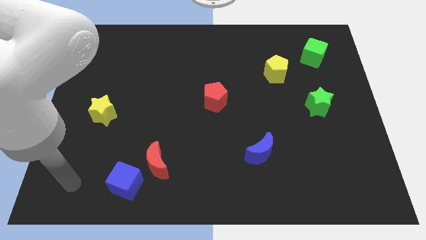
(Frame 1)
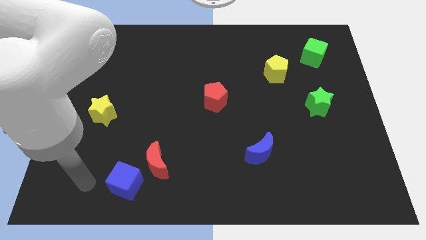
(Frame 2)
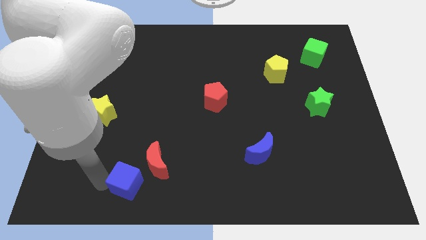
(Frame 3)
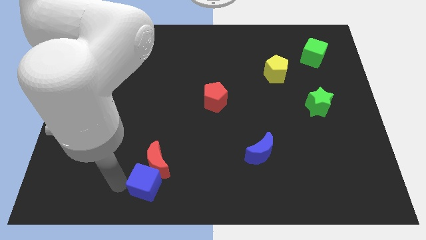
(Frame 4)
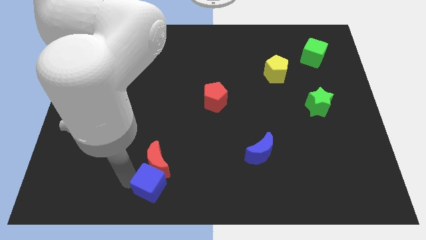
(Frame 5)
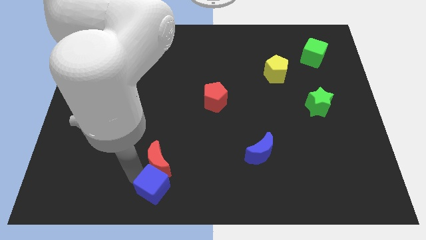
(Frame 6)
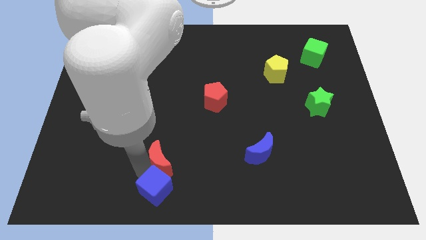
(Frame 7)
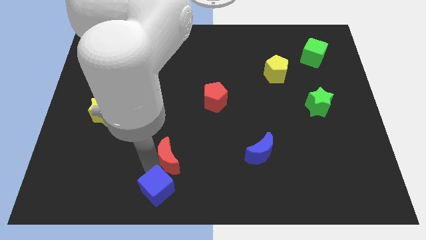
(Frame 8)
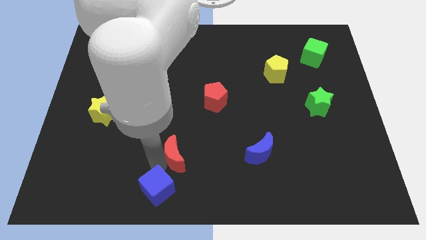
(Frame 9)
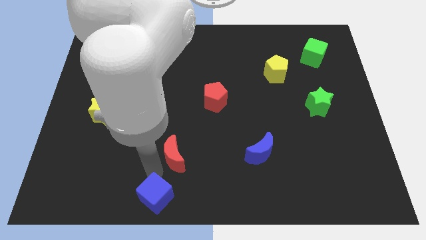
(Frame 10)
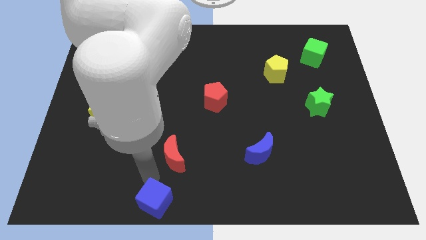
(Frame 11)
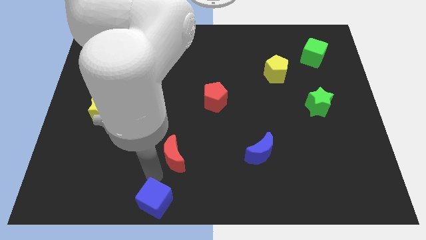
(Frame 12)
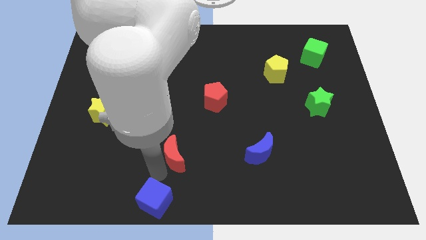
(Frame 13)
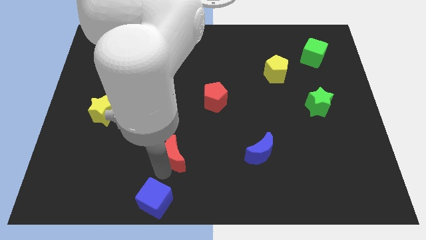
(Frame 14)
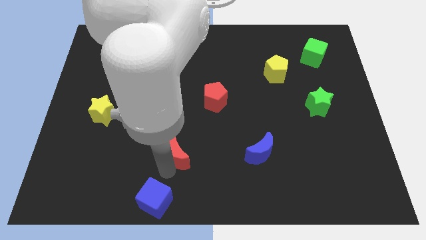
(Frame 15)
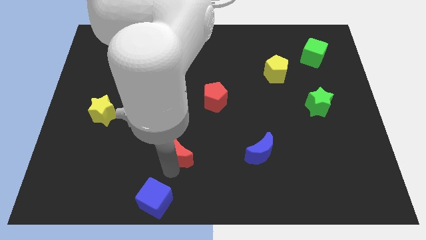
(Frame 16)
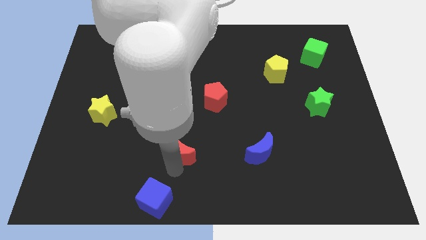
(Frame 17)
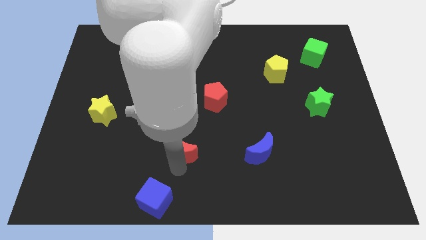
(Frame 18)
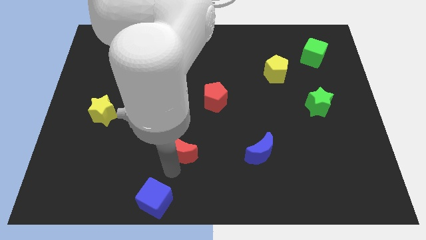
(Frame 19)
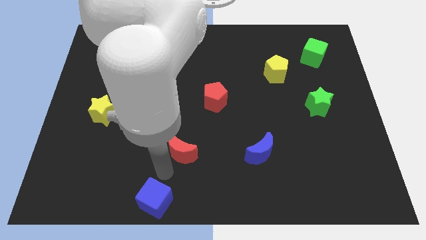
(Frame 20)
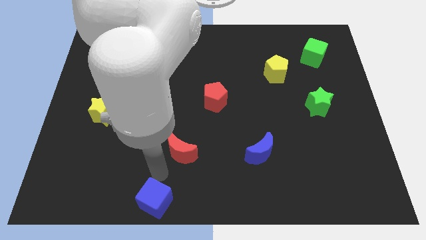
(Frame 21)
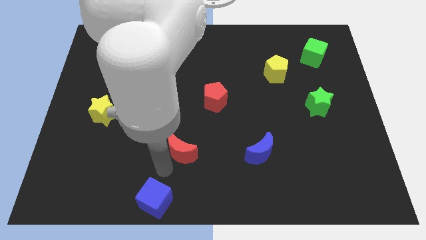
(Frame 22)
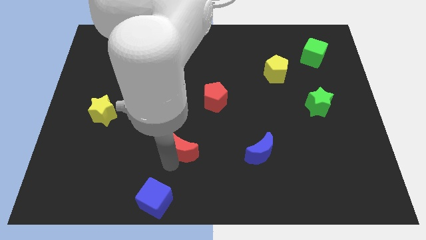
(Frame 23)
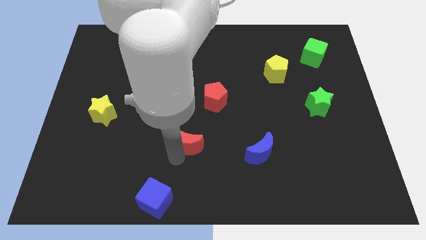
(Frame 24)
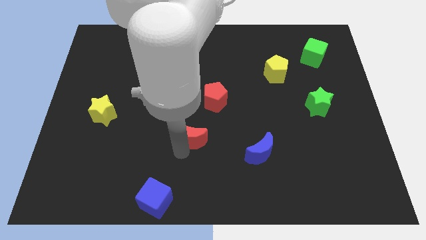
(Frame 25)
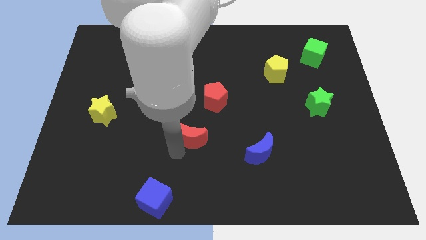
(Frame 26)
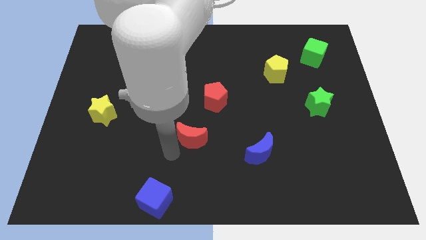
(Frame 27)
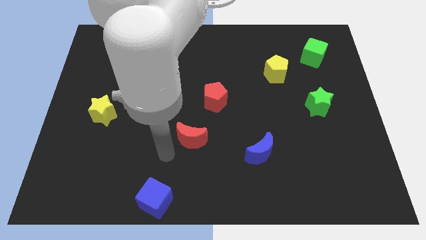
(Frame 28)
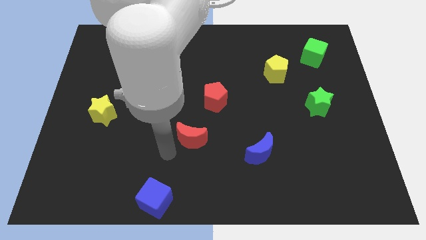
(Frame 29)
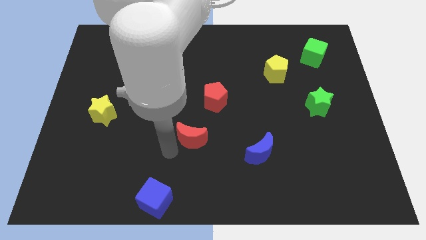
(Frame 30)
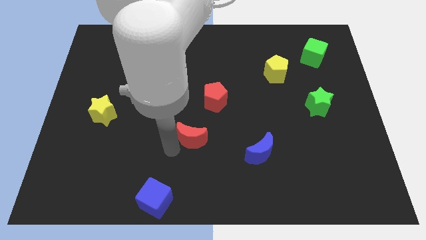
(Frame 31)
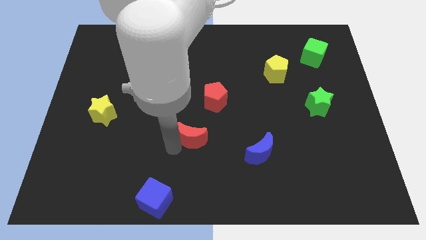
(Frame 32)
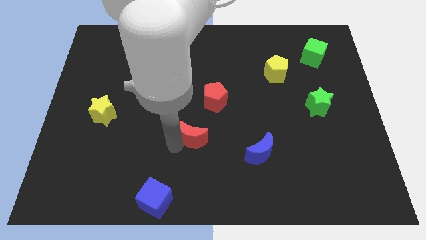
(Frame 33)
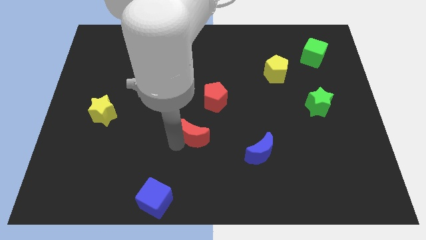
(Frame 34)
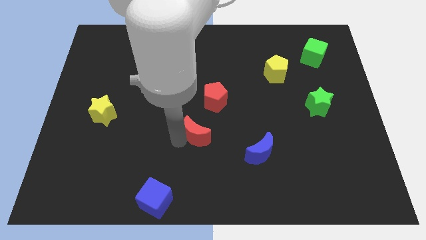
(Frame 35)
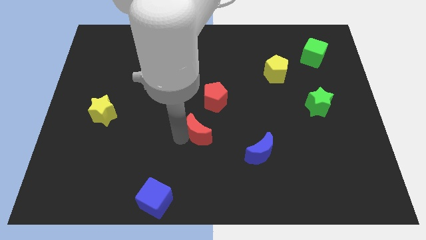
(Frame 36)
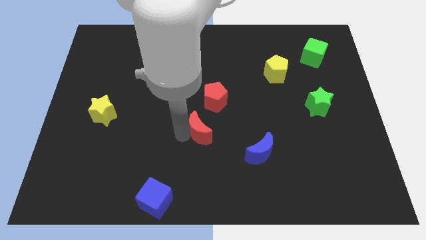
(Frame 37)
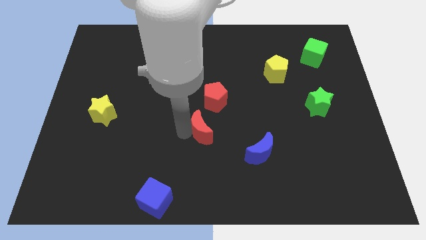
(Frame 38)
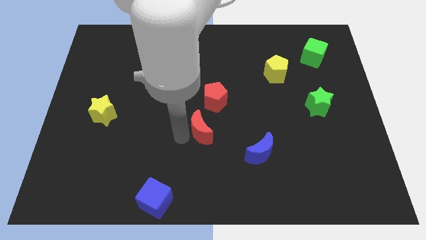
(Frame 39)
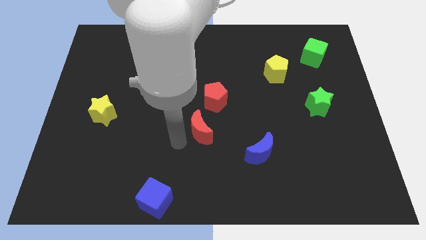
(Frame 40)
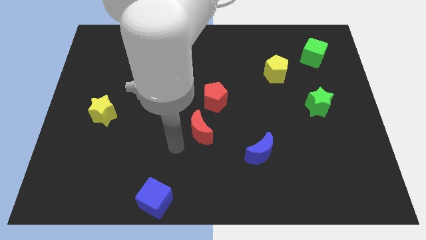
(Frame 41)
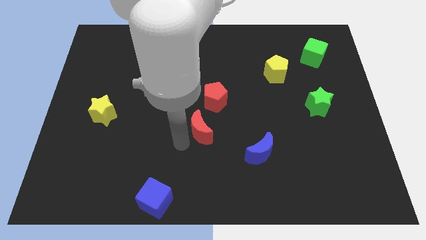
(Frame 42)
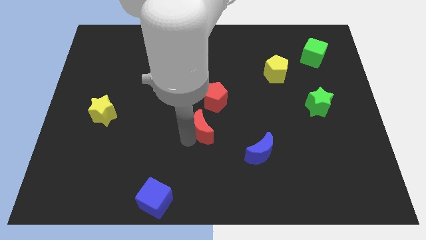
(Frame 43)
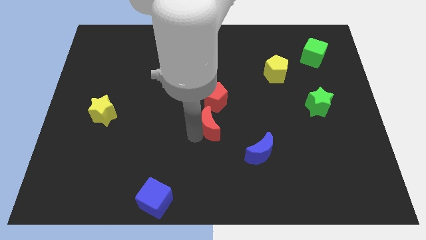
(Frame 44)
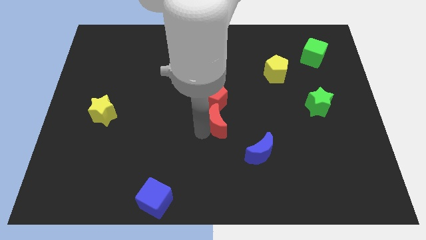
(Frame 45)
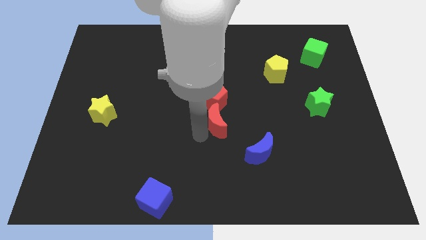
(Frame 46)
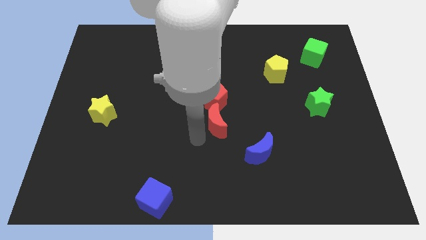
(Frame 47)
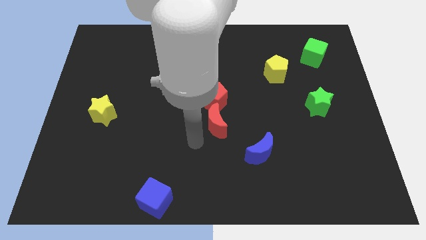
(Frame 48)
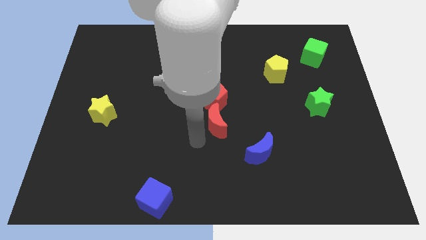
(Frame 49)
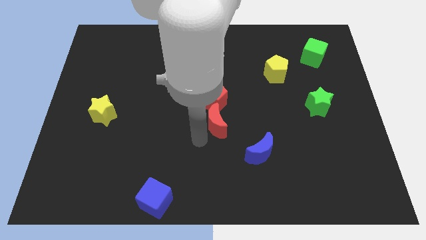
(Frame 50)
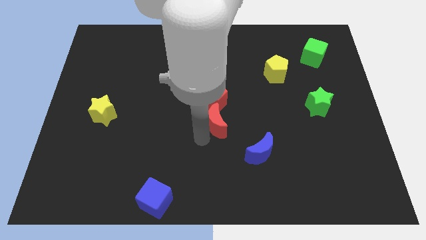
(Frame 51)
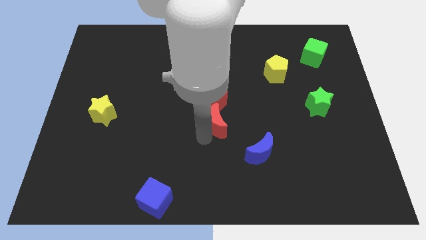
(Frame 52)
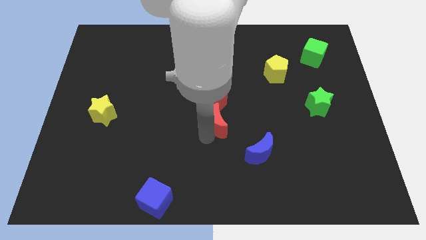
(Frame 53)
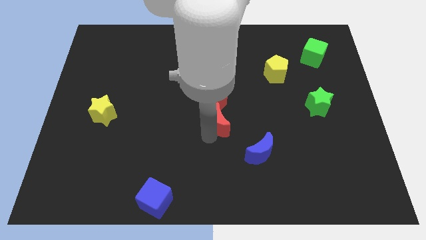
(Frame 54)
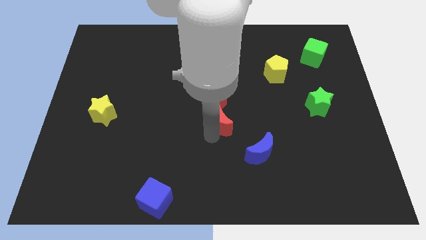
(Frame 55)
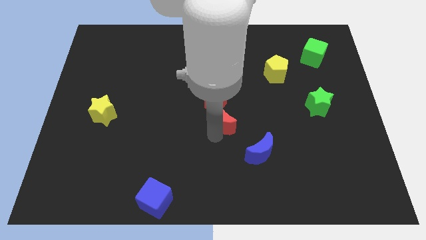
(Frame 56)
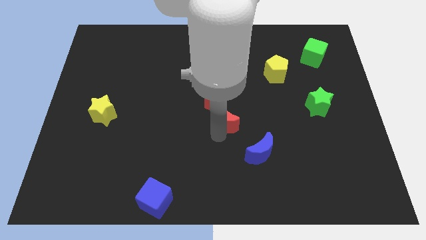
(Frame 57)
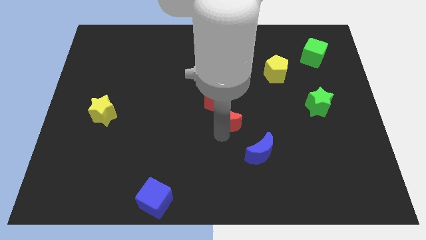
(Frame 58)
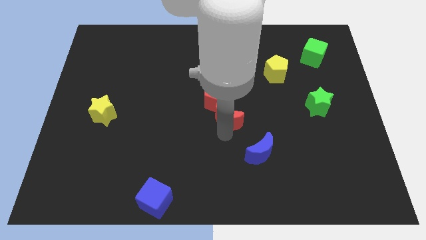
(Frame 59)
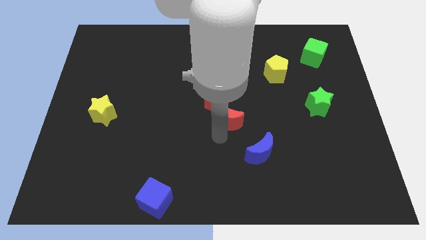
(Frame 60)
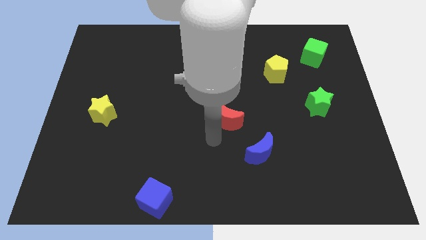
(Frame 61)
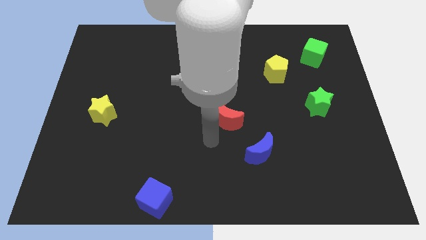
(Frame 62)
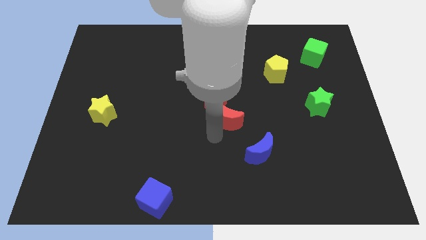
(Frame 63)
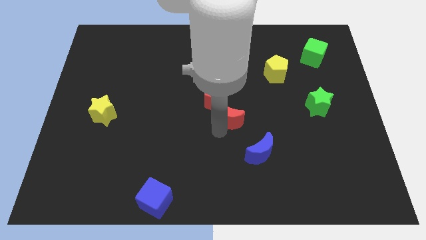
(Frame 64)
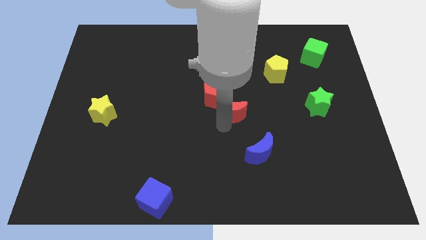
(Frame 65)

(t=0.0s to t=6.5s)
push the red moon up and then right

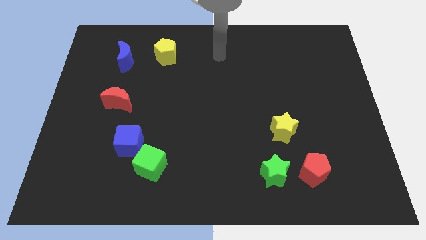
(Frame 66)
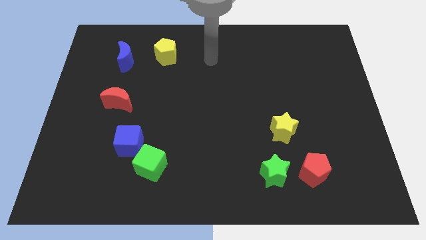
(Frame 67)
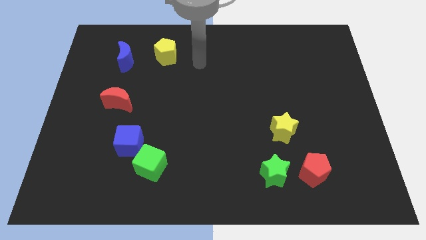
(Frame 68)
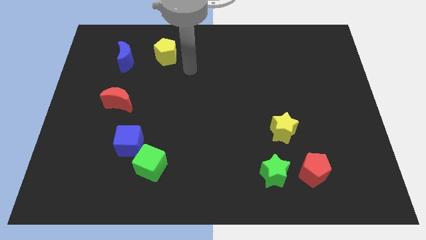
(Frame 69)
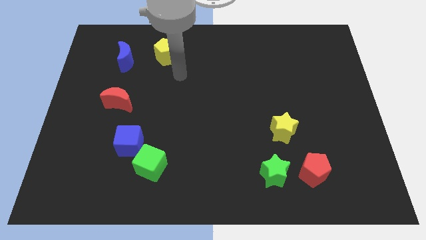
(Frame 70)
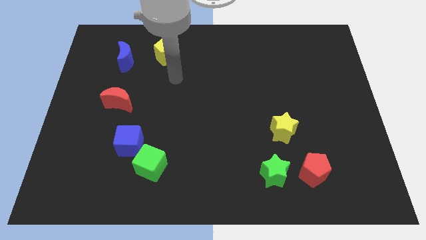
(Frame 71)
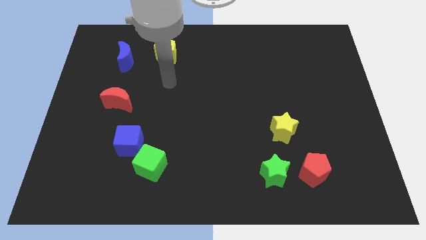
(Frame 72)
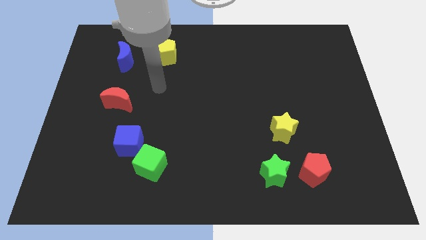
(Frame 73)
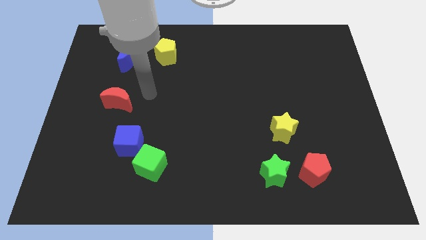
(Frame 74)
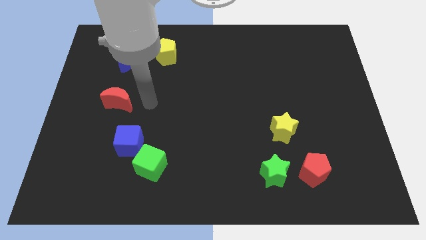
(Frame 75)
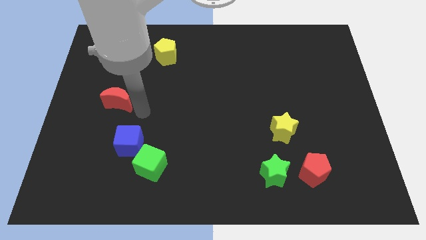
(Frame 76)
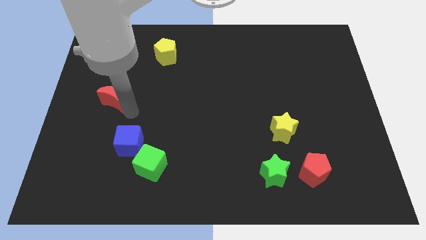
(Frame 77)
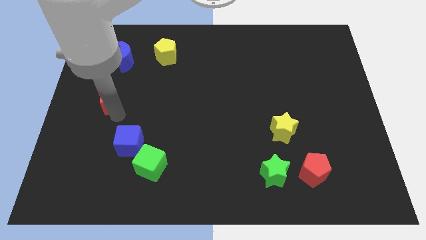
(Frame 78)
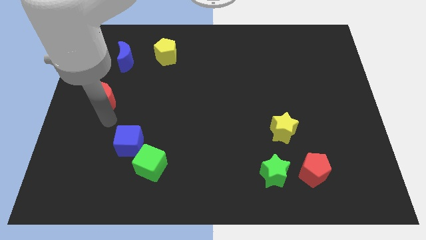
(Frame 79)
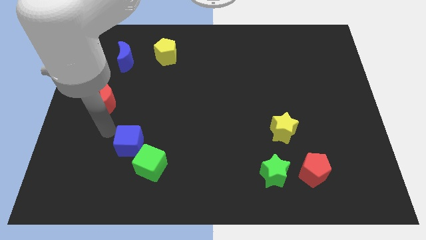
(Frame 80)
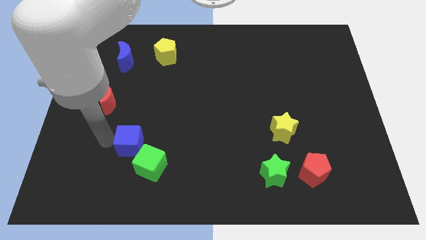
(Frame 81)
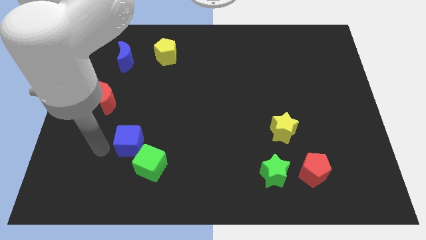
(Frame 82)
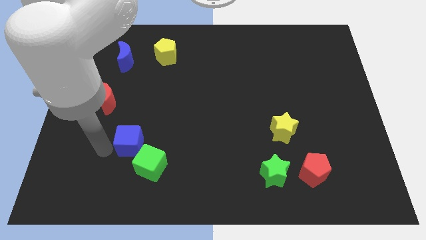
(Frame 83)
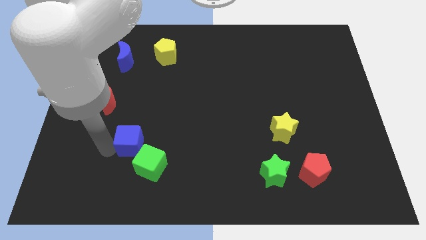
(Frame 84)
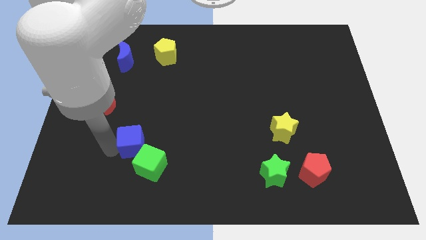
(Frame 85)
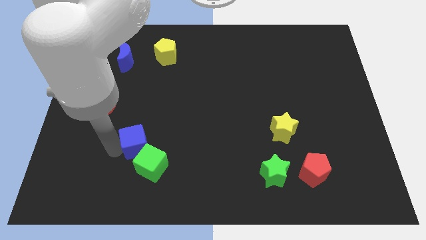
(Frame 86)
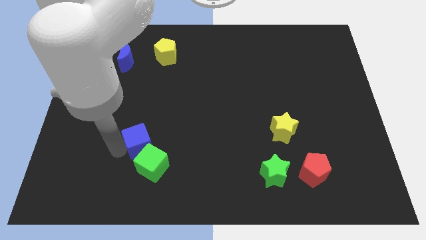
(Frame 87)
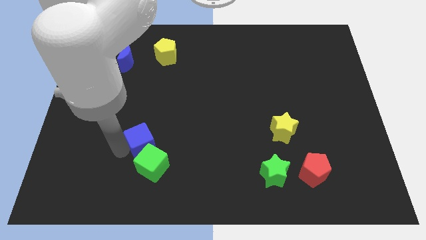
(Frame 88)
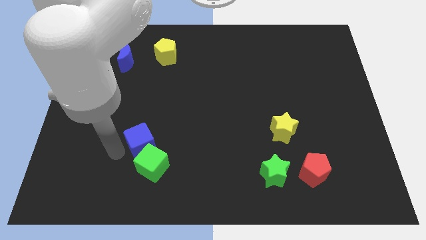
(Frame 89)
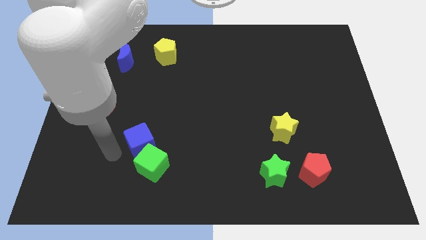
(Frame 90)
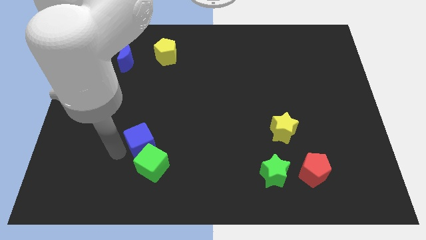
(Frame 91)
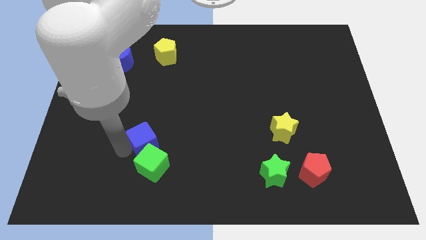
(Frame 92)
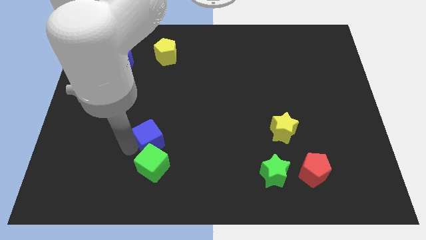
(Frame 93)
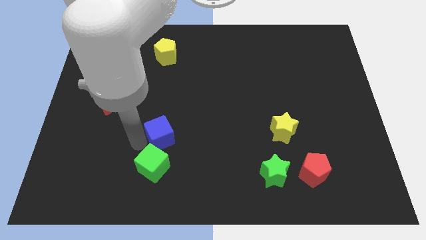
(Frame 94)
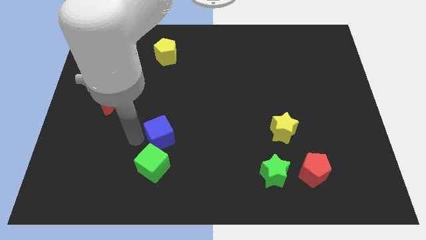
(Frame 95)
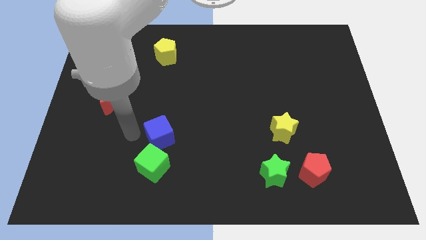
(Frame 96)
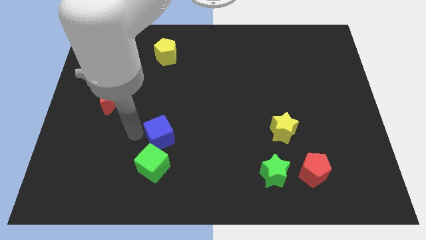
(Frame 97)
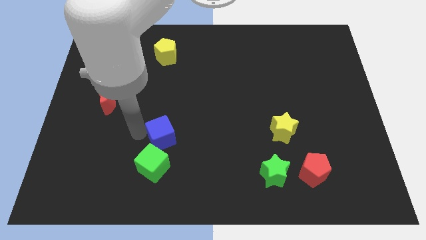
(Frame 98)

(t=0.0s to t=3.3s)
move the blue cube to the right somewhat
